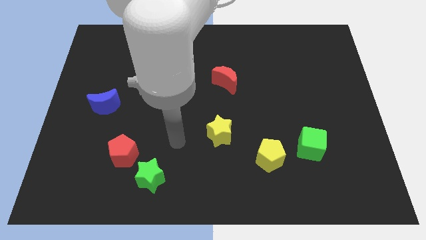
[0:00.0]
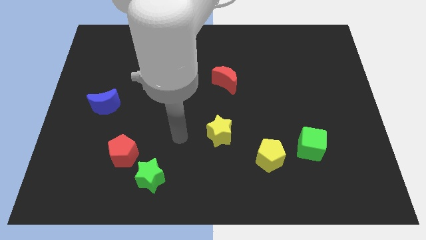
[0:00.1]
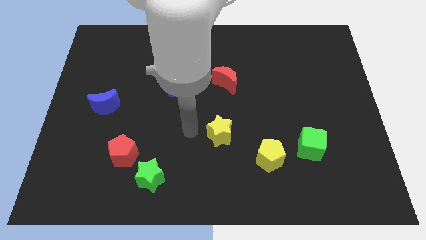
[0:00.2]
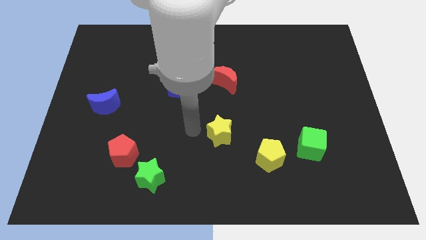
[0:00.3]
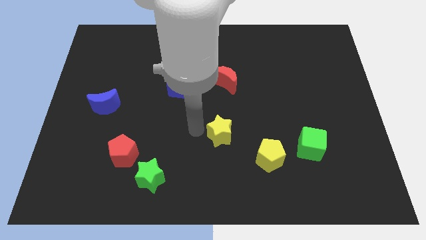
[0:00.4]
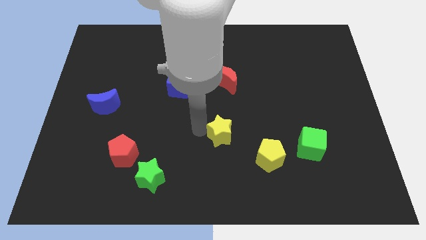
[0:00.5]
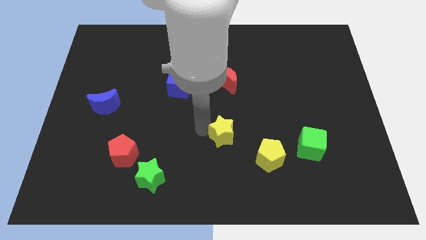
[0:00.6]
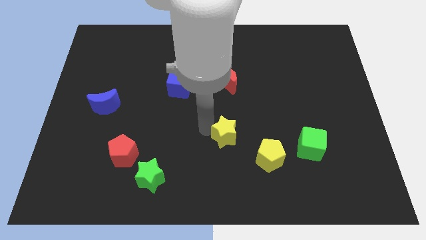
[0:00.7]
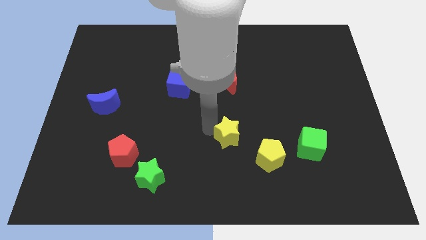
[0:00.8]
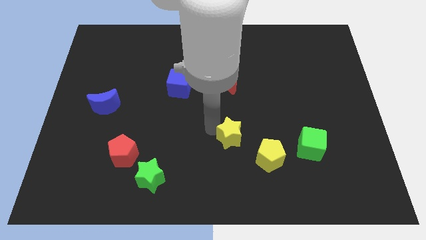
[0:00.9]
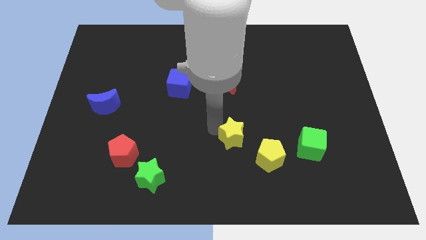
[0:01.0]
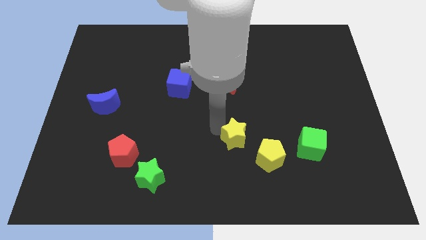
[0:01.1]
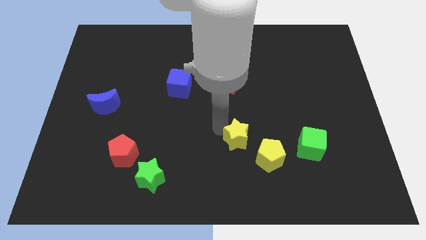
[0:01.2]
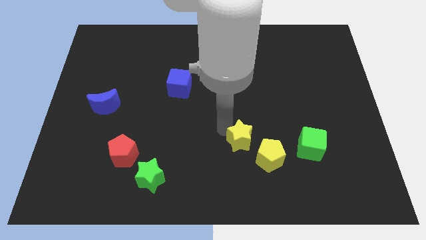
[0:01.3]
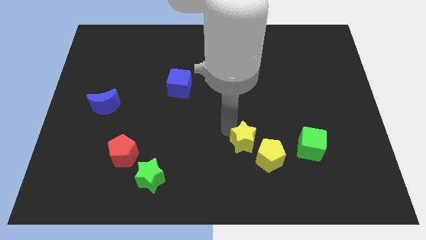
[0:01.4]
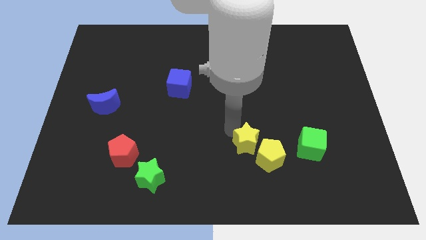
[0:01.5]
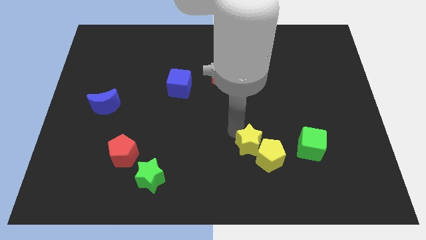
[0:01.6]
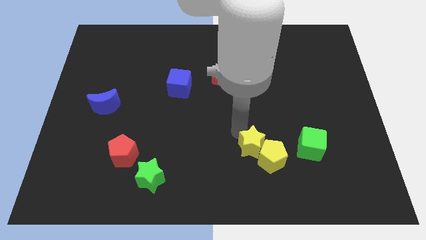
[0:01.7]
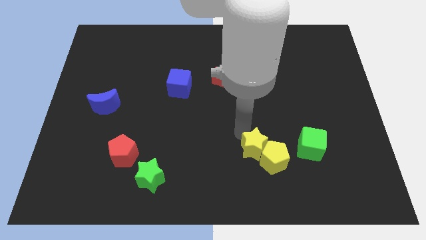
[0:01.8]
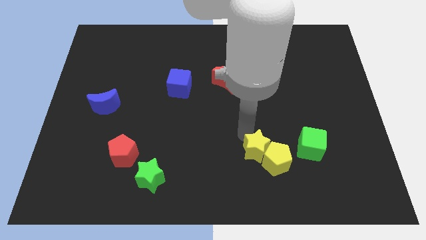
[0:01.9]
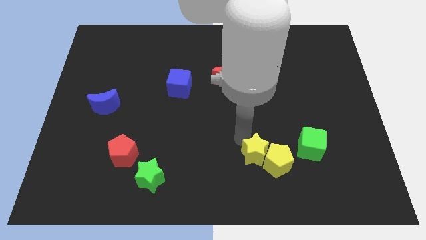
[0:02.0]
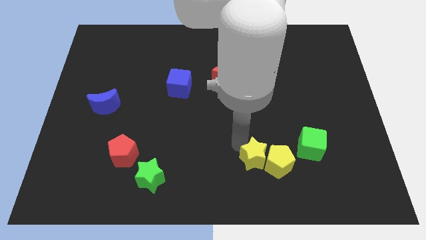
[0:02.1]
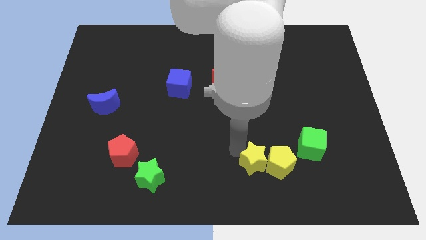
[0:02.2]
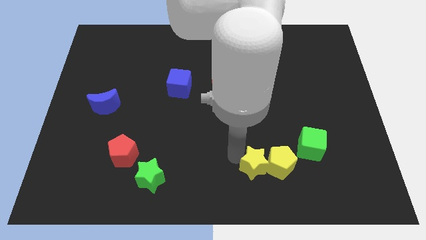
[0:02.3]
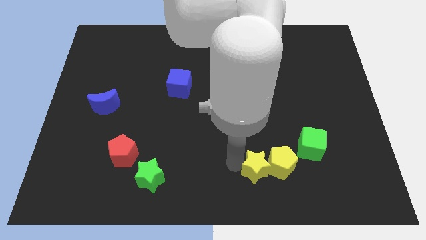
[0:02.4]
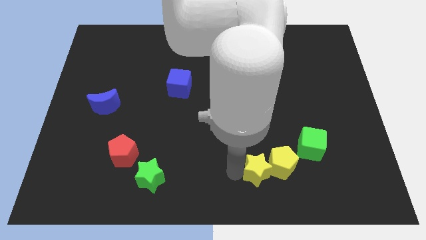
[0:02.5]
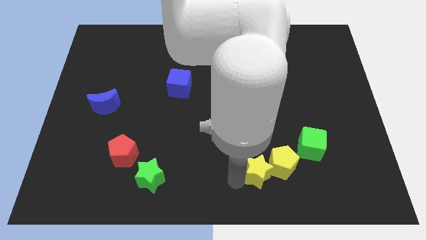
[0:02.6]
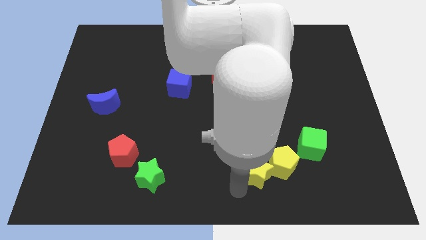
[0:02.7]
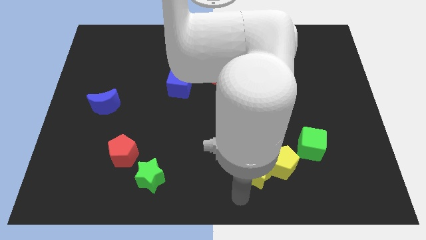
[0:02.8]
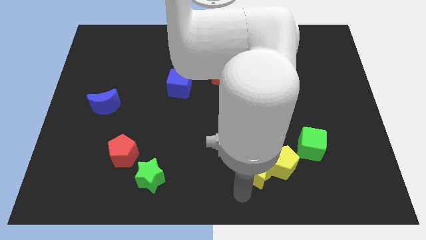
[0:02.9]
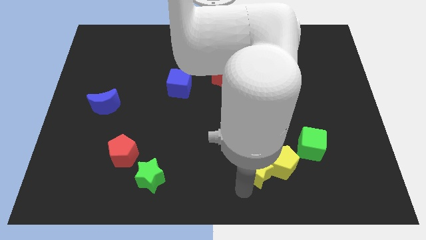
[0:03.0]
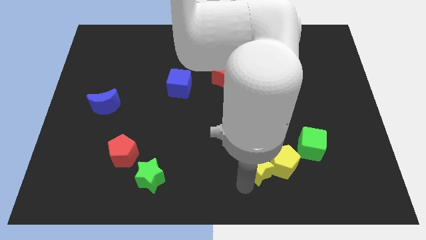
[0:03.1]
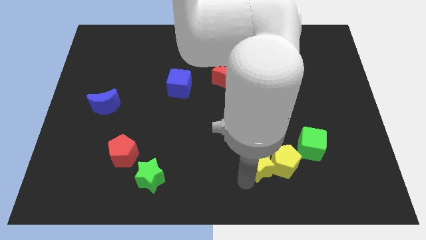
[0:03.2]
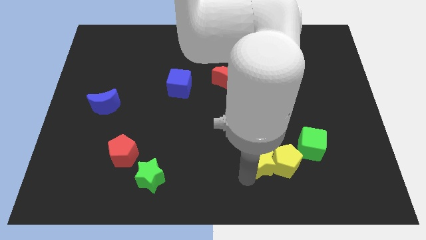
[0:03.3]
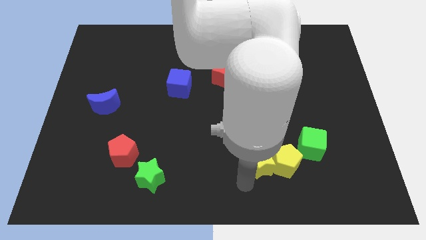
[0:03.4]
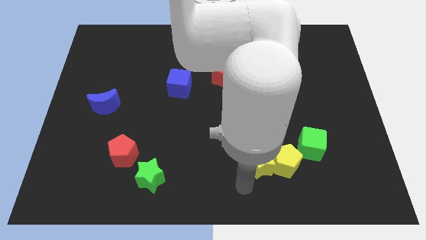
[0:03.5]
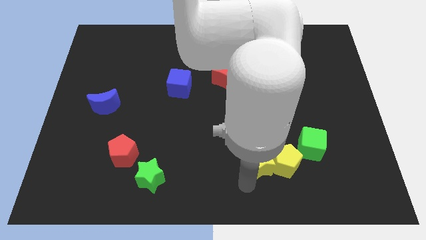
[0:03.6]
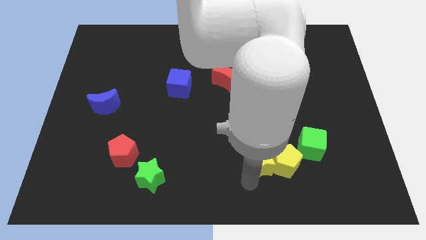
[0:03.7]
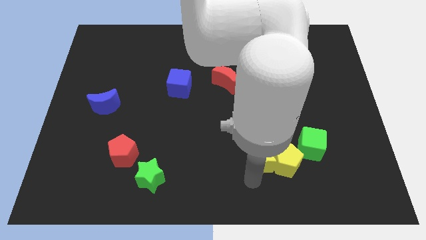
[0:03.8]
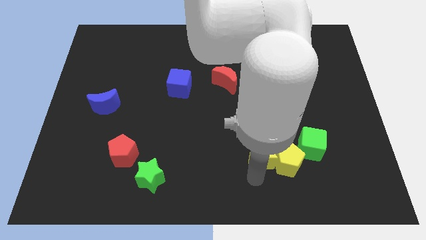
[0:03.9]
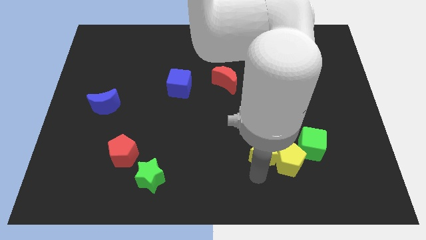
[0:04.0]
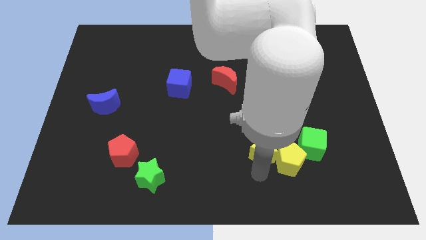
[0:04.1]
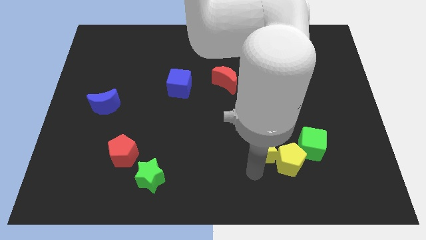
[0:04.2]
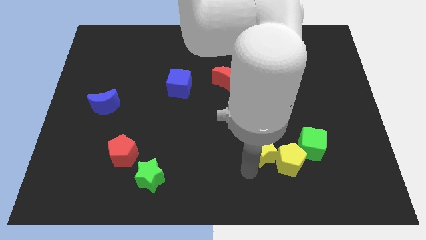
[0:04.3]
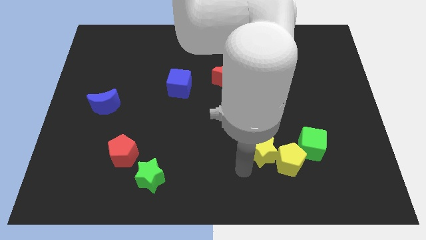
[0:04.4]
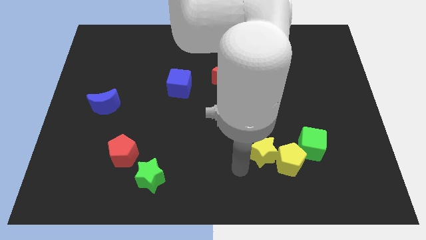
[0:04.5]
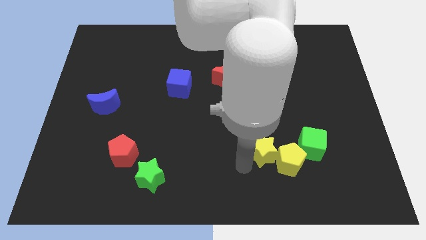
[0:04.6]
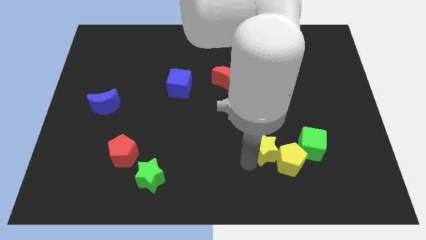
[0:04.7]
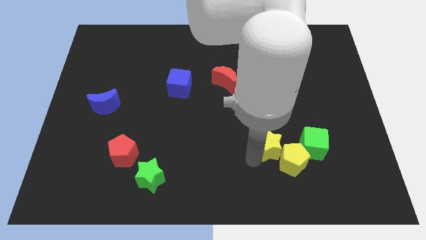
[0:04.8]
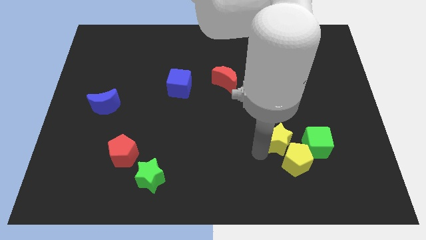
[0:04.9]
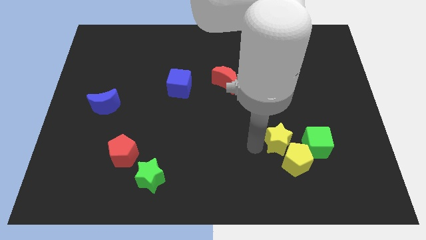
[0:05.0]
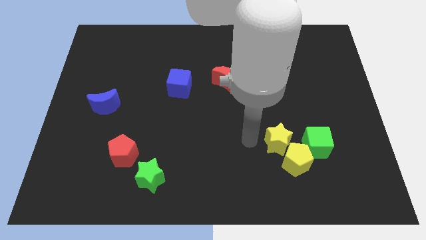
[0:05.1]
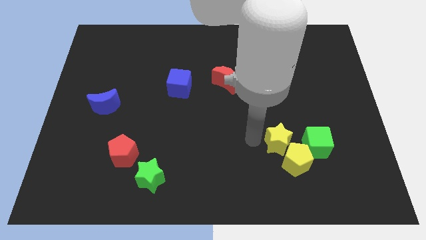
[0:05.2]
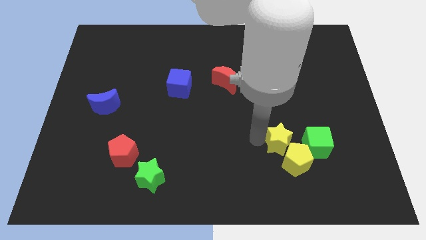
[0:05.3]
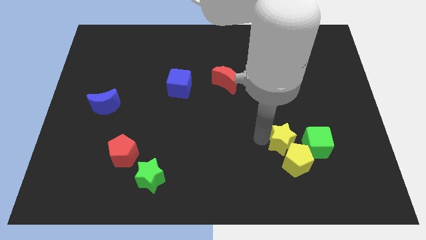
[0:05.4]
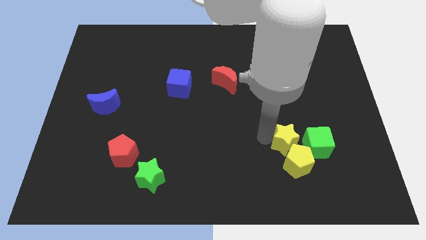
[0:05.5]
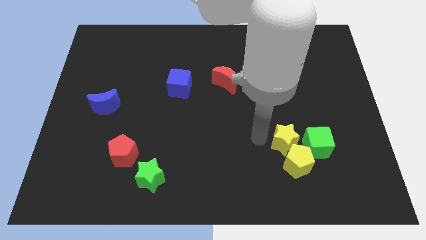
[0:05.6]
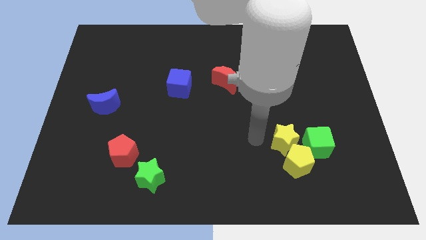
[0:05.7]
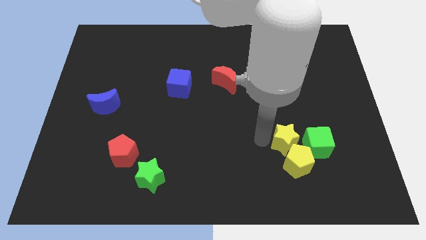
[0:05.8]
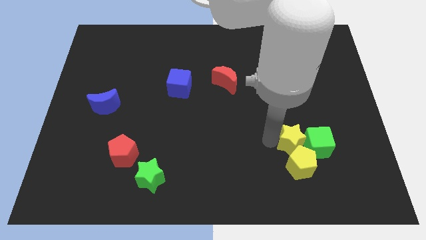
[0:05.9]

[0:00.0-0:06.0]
move the yellow star next to the green cube

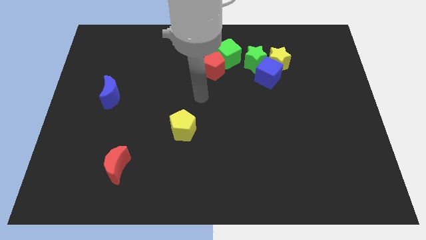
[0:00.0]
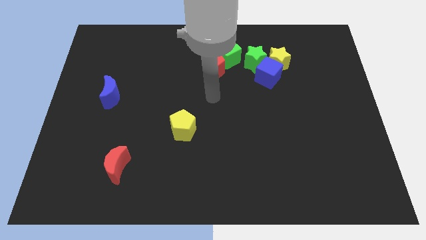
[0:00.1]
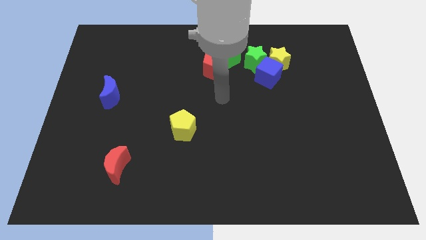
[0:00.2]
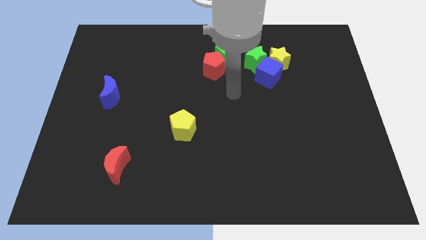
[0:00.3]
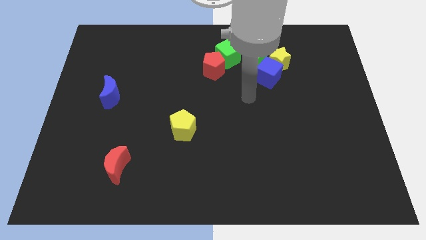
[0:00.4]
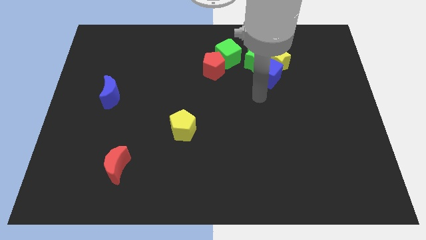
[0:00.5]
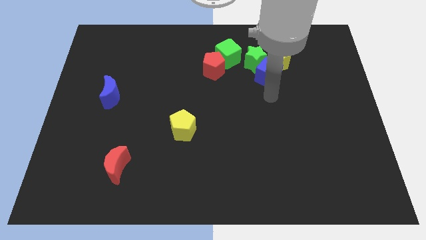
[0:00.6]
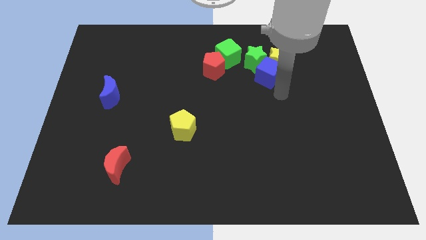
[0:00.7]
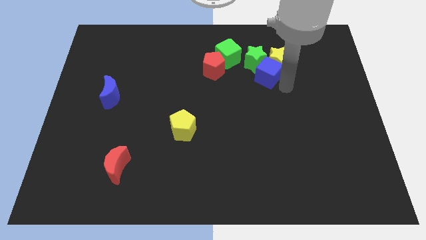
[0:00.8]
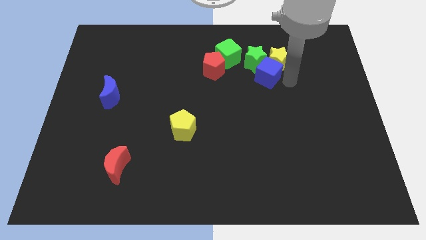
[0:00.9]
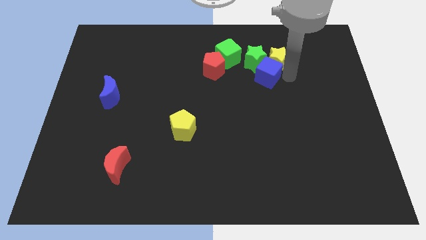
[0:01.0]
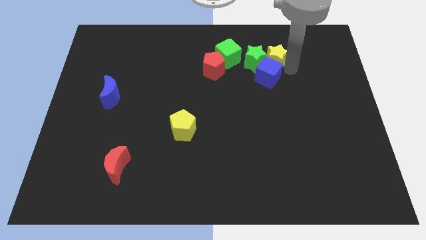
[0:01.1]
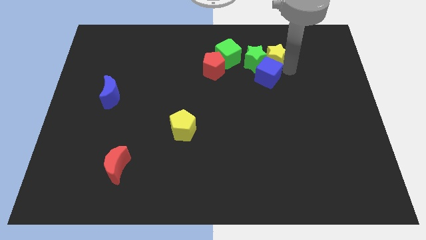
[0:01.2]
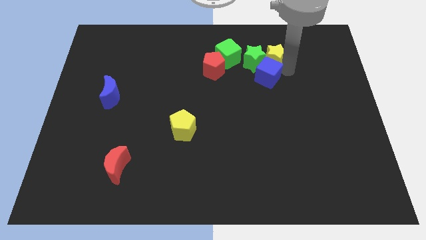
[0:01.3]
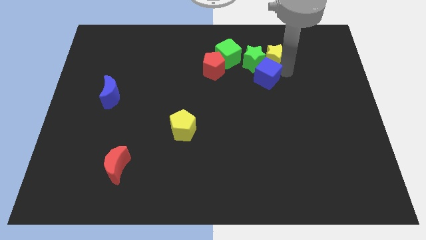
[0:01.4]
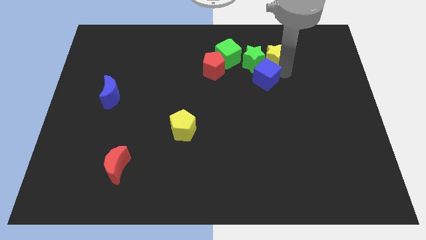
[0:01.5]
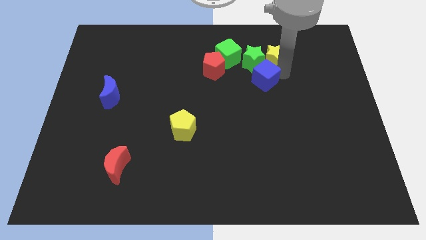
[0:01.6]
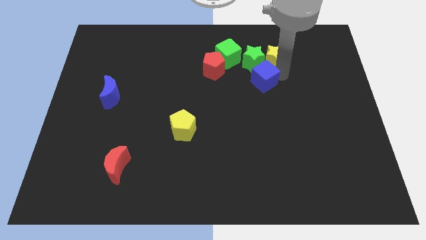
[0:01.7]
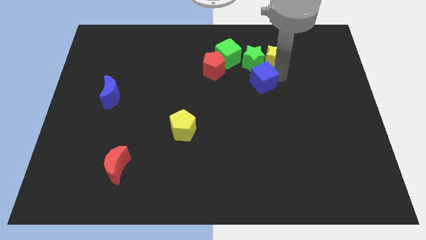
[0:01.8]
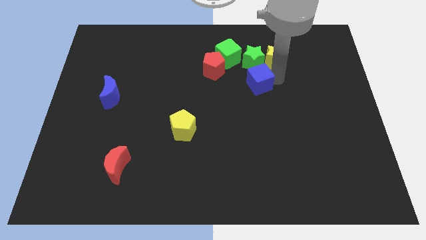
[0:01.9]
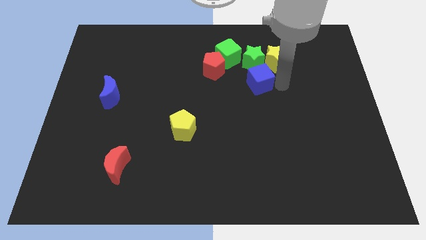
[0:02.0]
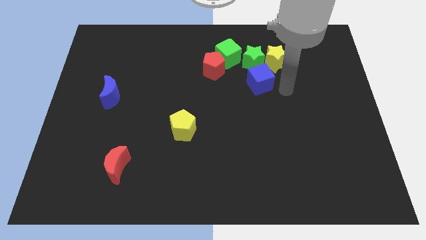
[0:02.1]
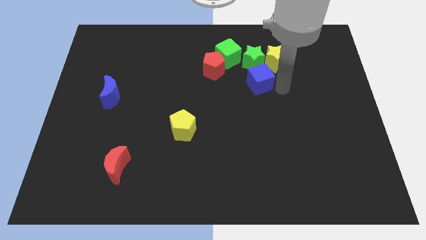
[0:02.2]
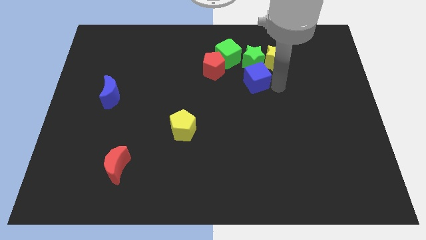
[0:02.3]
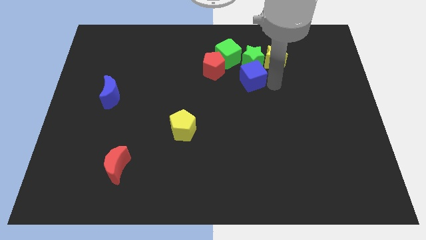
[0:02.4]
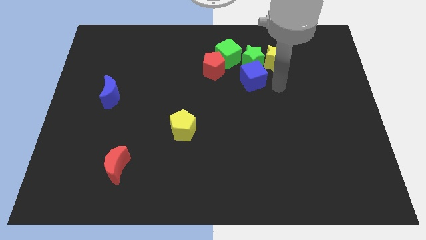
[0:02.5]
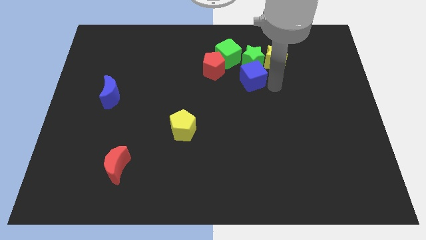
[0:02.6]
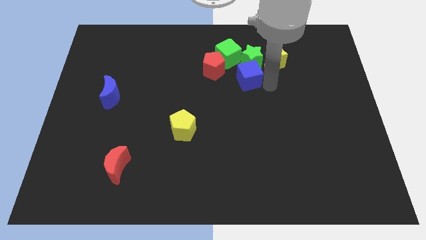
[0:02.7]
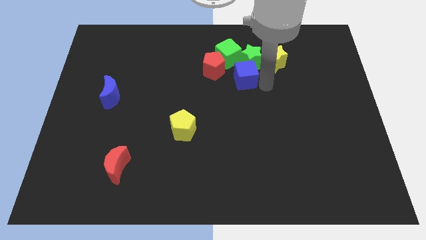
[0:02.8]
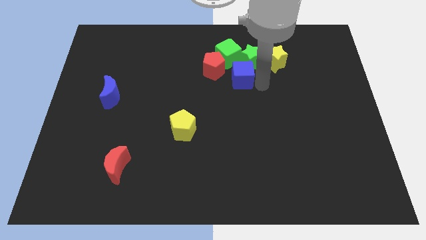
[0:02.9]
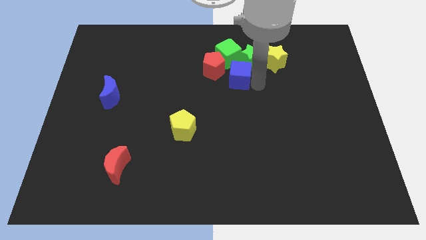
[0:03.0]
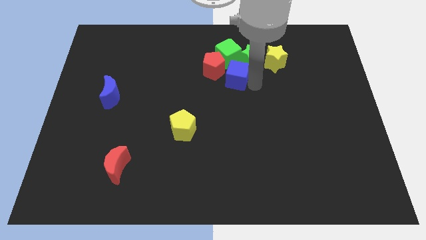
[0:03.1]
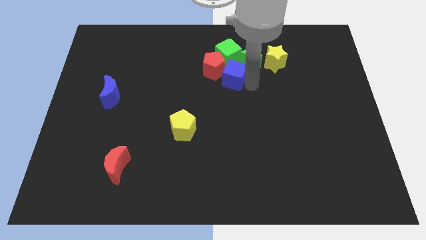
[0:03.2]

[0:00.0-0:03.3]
move the blue cube next to the red pentagon
